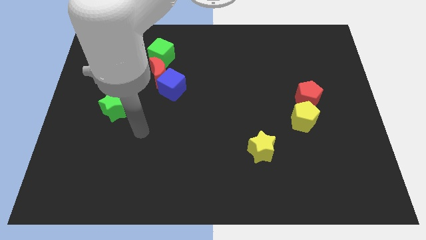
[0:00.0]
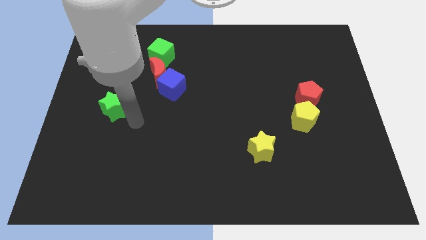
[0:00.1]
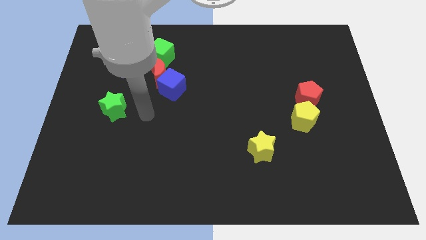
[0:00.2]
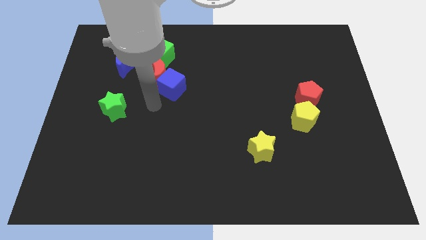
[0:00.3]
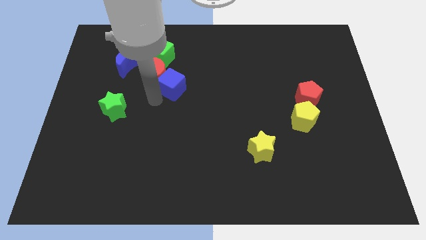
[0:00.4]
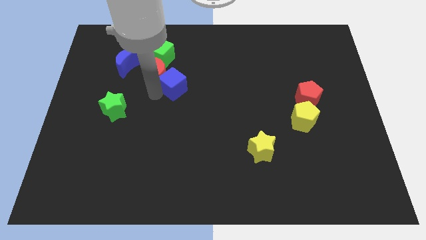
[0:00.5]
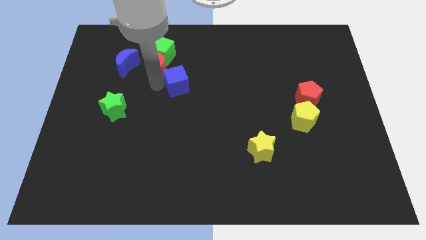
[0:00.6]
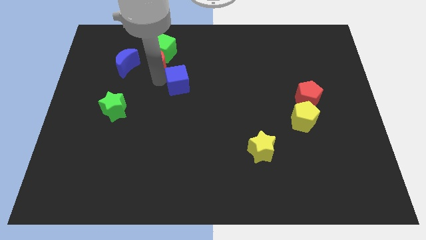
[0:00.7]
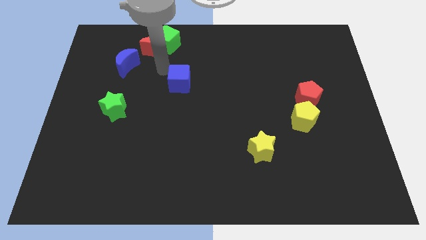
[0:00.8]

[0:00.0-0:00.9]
move the blue cube away from the red moon

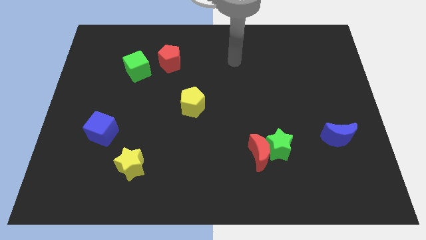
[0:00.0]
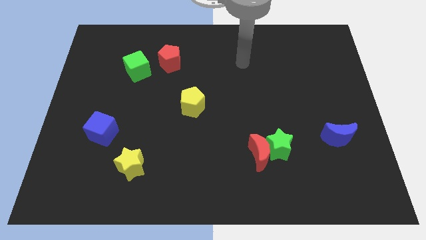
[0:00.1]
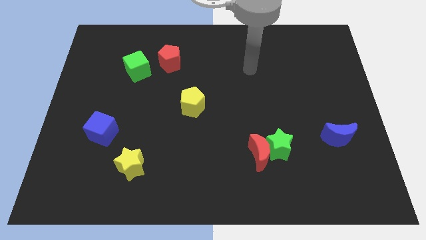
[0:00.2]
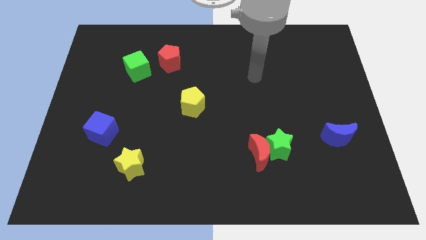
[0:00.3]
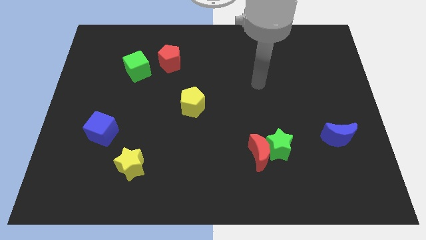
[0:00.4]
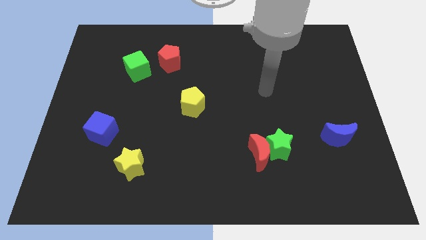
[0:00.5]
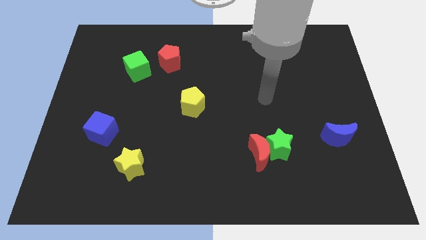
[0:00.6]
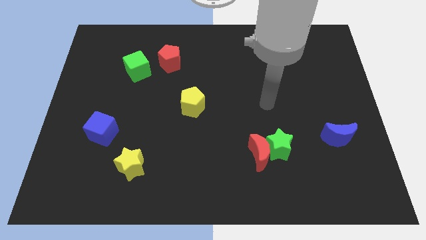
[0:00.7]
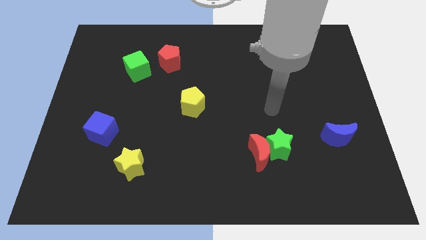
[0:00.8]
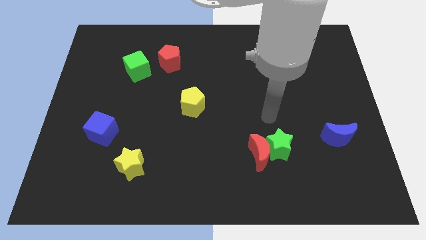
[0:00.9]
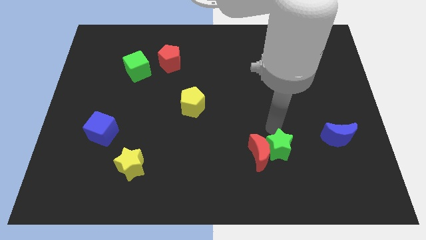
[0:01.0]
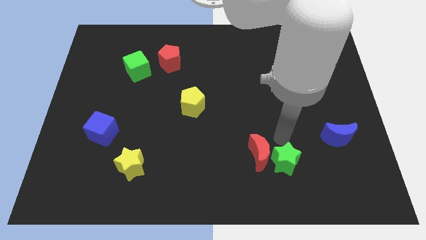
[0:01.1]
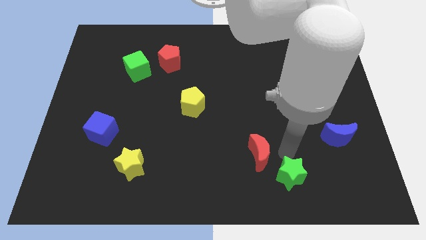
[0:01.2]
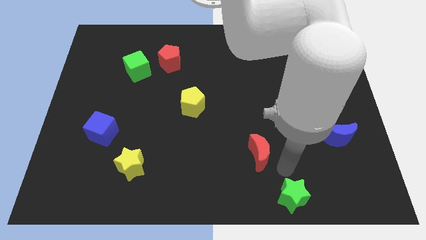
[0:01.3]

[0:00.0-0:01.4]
pull the red moon apart from the green star

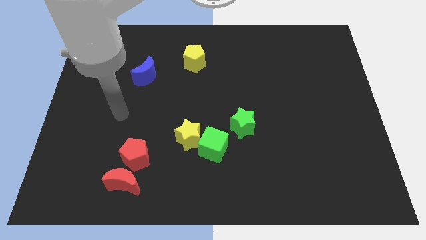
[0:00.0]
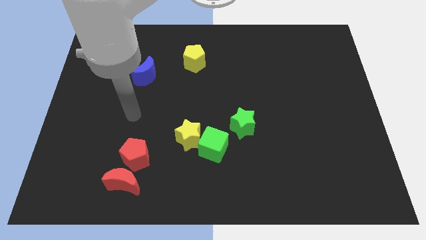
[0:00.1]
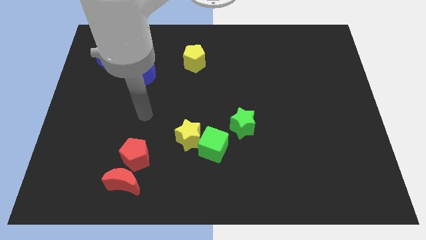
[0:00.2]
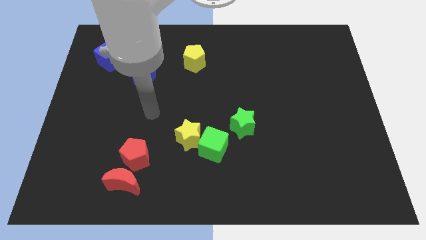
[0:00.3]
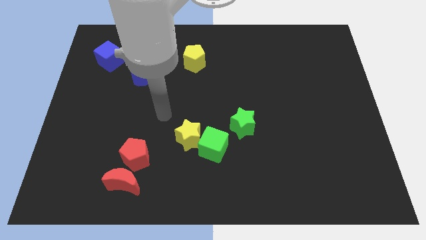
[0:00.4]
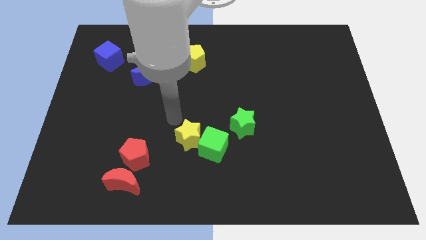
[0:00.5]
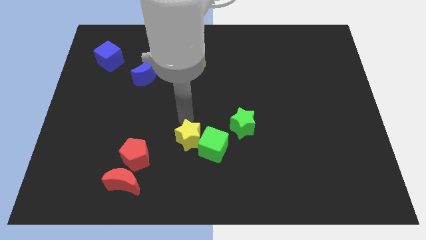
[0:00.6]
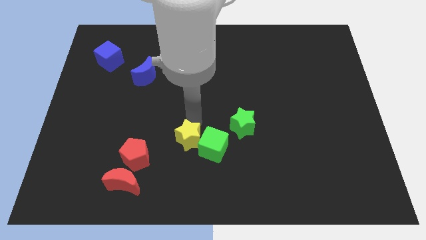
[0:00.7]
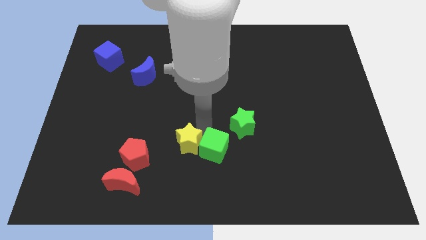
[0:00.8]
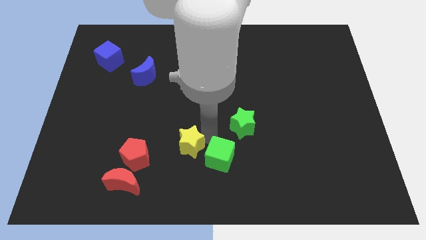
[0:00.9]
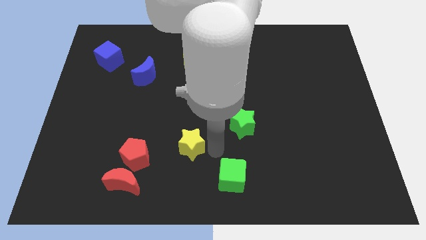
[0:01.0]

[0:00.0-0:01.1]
separate the yellow star from the green cube

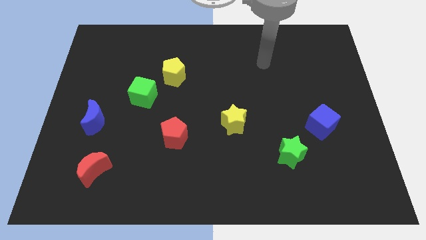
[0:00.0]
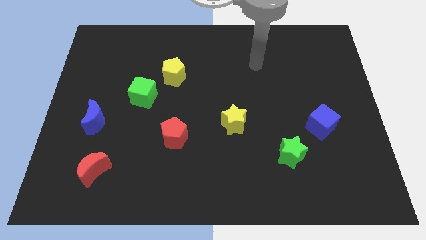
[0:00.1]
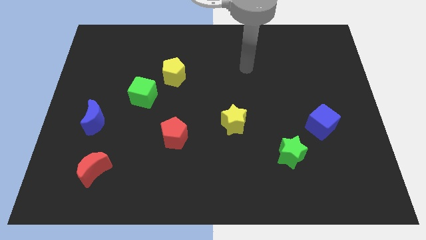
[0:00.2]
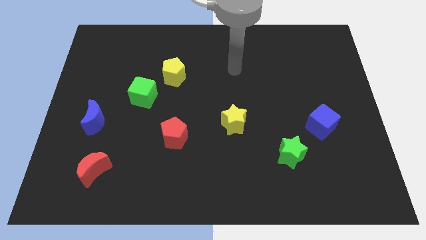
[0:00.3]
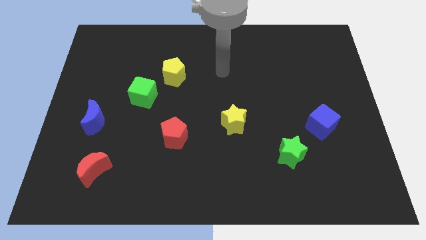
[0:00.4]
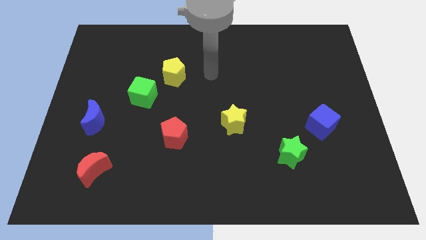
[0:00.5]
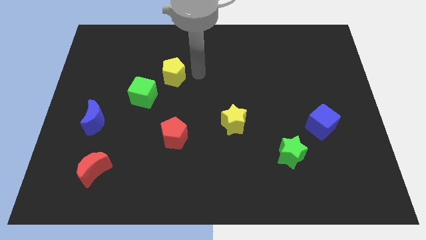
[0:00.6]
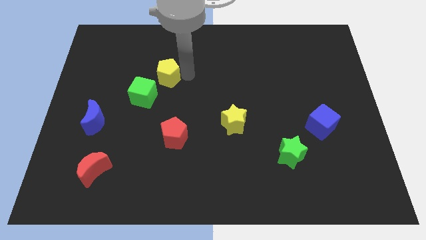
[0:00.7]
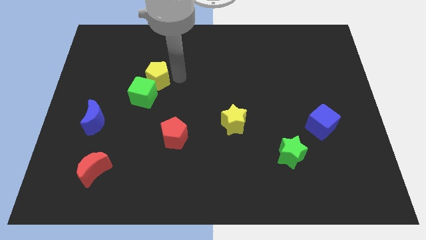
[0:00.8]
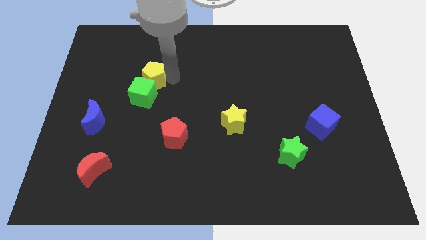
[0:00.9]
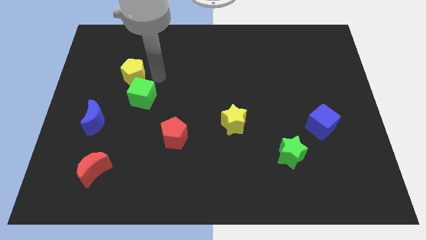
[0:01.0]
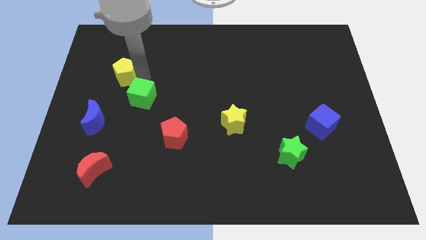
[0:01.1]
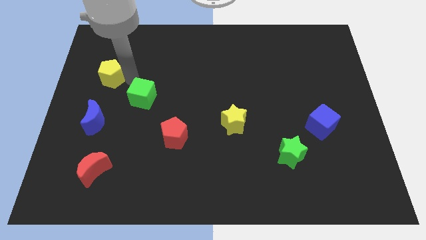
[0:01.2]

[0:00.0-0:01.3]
separate the green cube from the yellow pentagon

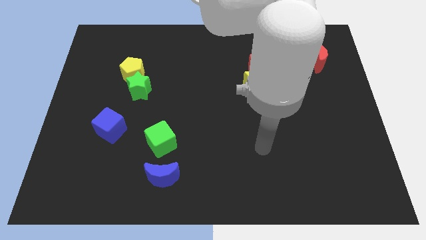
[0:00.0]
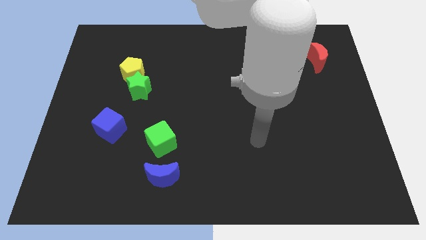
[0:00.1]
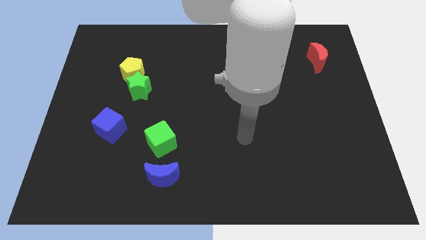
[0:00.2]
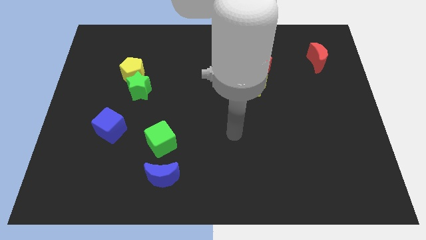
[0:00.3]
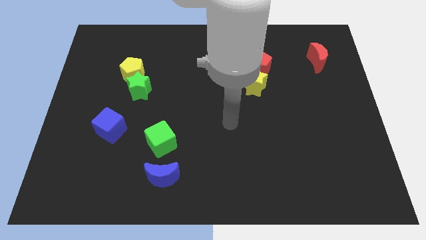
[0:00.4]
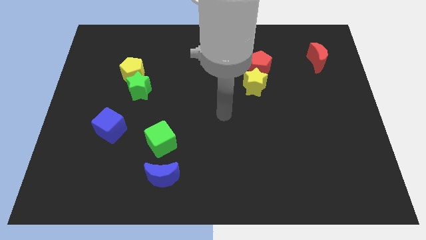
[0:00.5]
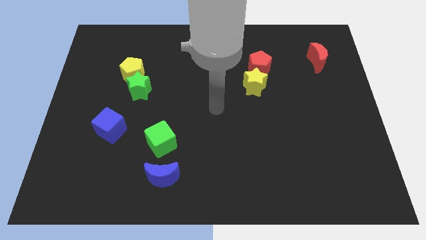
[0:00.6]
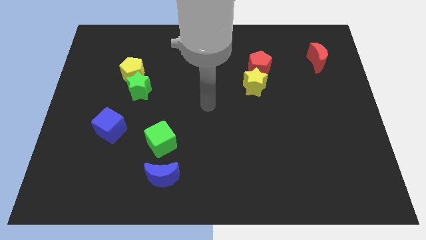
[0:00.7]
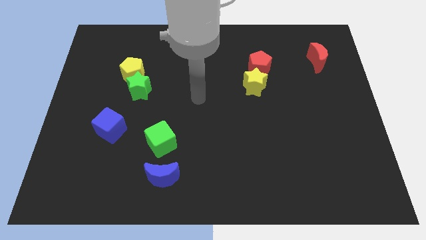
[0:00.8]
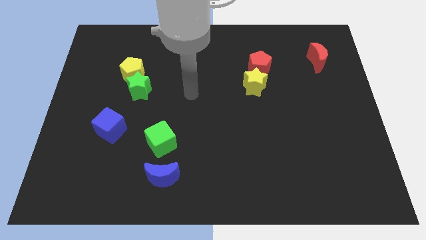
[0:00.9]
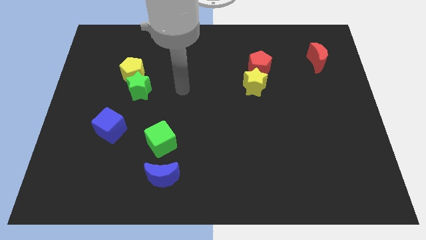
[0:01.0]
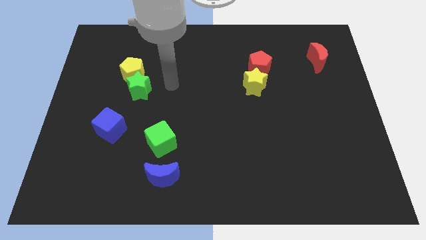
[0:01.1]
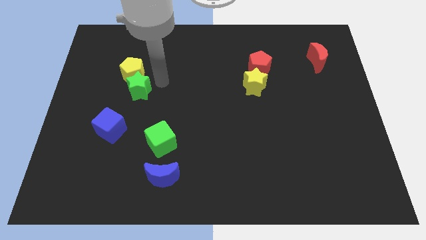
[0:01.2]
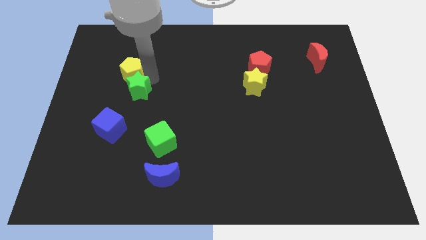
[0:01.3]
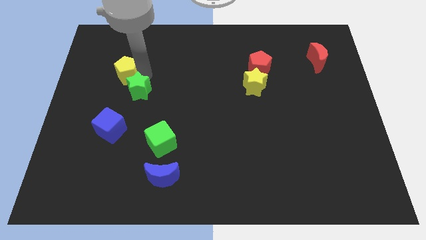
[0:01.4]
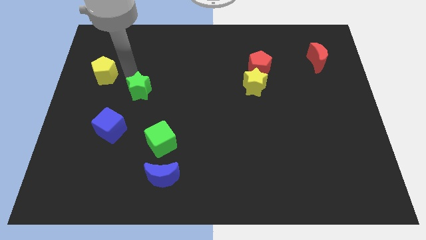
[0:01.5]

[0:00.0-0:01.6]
pull the green star apart from the yellow pentagon

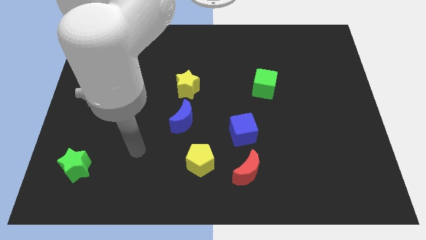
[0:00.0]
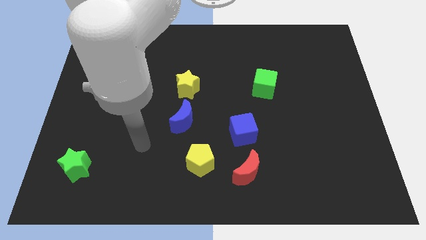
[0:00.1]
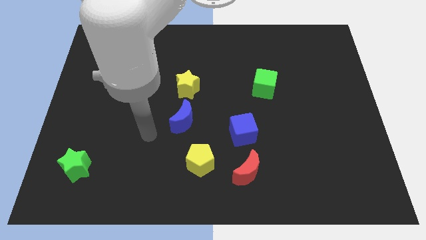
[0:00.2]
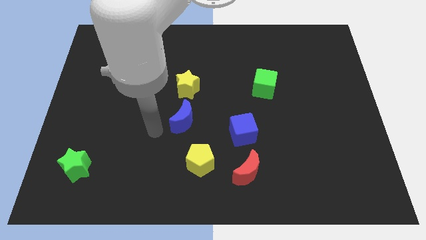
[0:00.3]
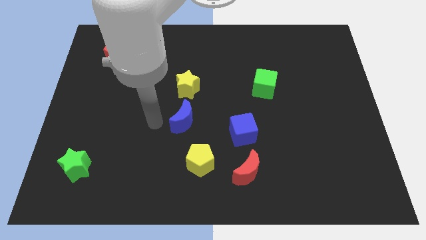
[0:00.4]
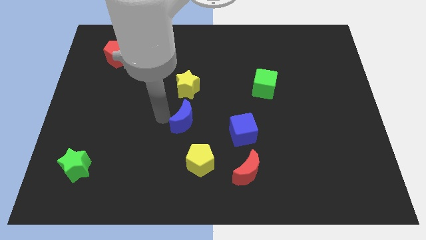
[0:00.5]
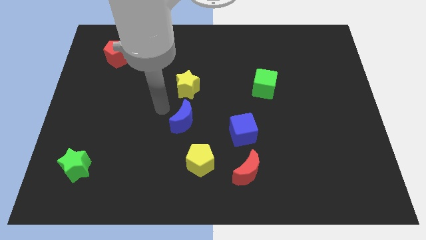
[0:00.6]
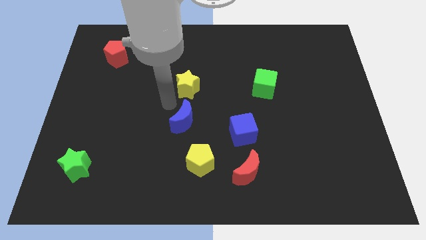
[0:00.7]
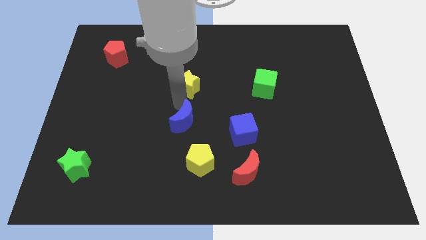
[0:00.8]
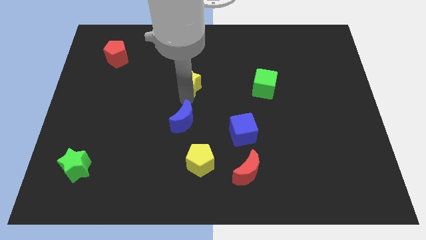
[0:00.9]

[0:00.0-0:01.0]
pull the blue moon apart from the yellow star

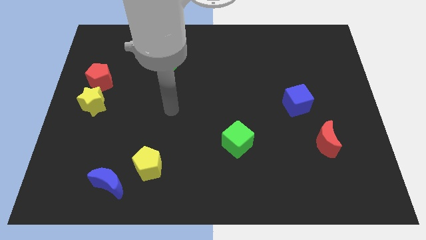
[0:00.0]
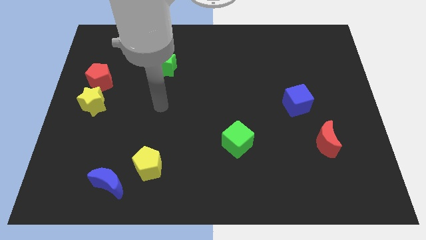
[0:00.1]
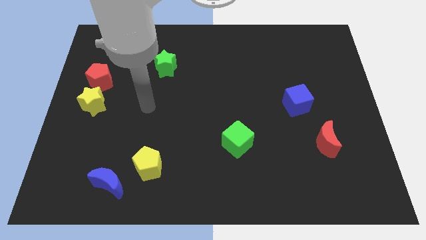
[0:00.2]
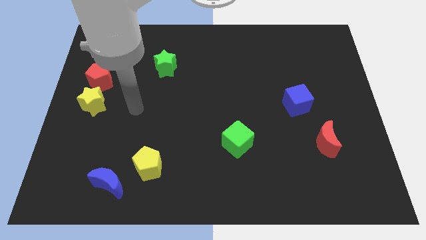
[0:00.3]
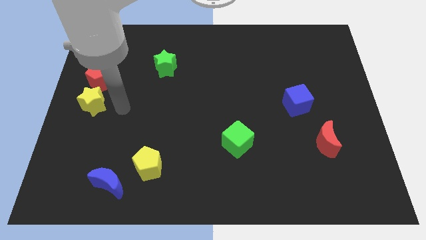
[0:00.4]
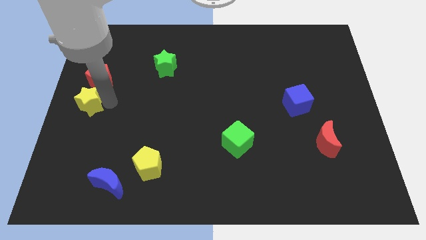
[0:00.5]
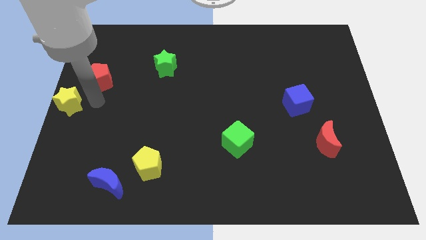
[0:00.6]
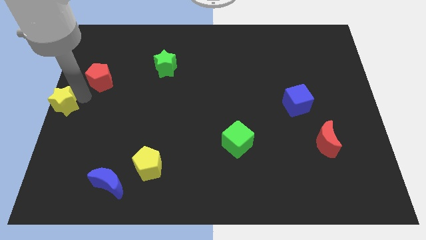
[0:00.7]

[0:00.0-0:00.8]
move the red pentagon away from the yellow star

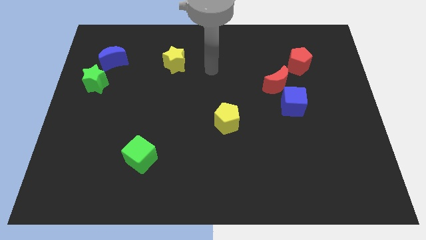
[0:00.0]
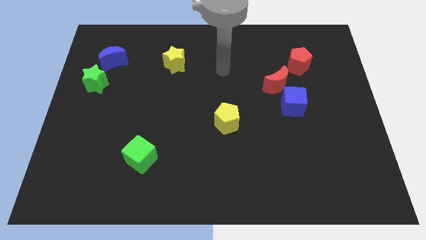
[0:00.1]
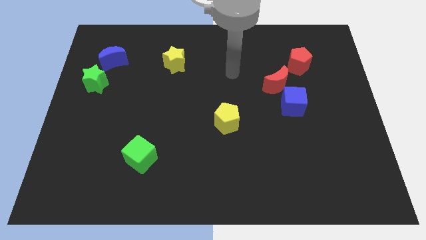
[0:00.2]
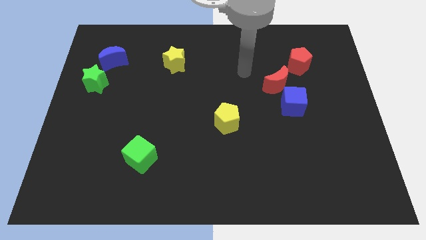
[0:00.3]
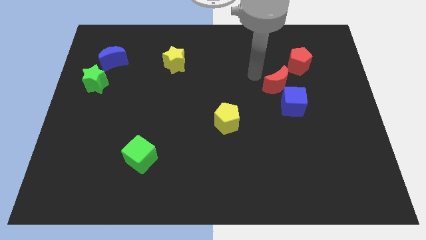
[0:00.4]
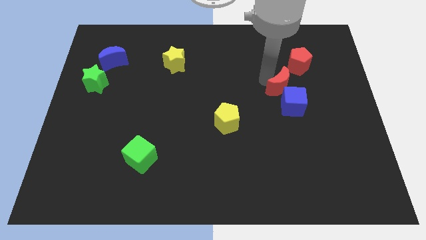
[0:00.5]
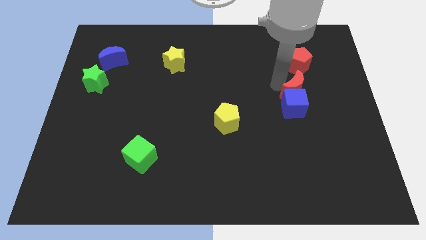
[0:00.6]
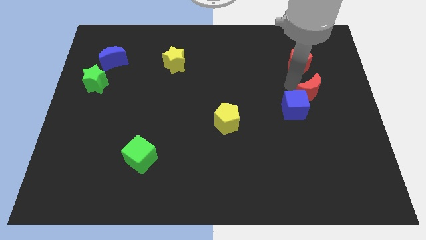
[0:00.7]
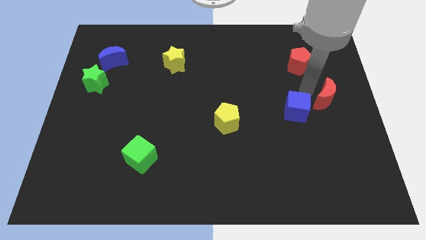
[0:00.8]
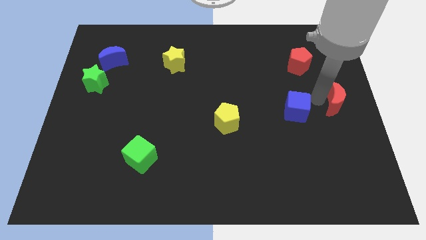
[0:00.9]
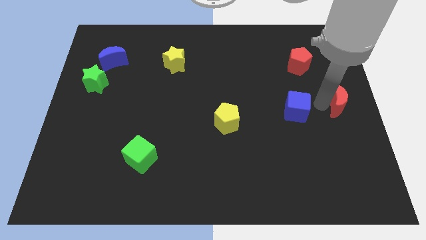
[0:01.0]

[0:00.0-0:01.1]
separate the blue cube from the red moon

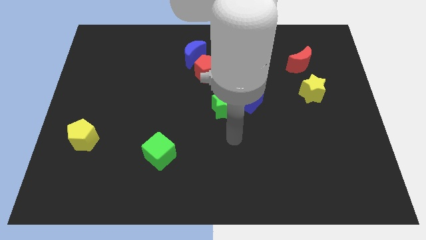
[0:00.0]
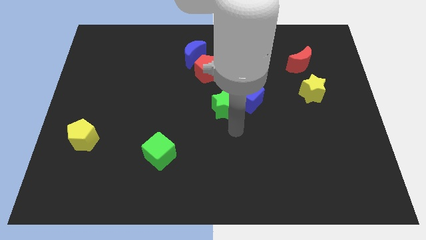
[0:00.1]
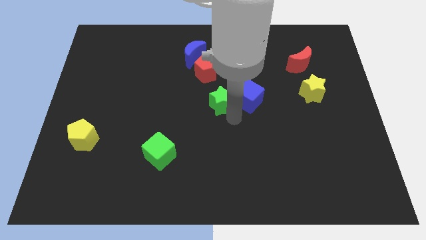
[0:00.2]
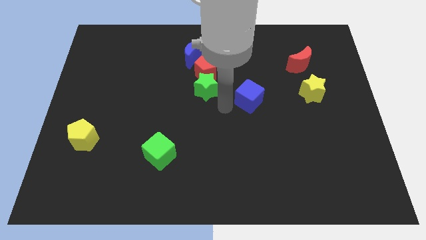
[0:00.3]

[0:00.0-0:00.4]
move the blue cube away from the green star
